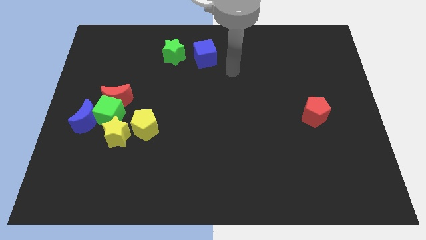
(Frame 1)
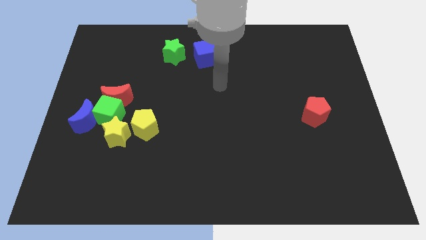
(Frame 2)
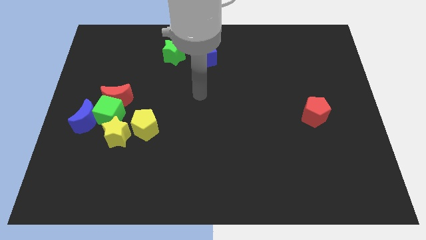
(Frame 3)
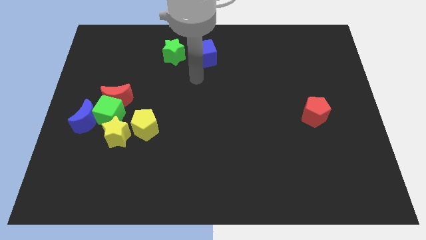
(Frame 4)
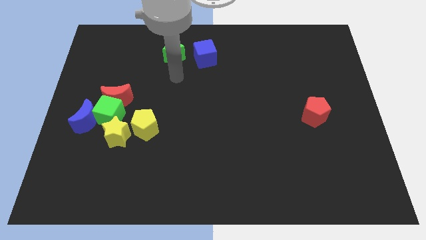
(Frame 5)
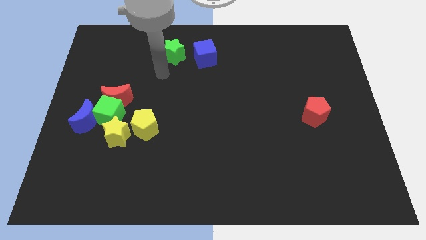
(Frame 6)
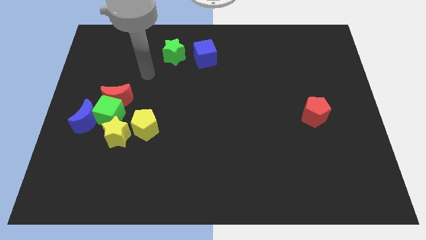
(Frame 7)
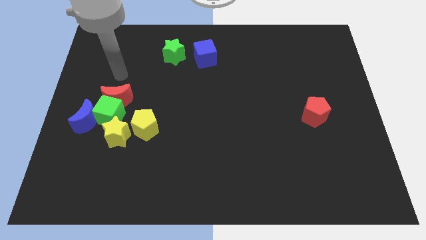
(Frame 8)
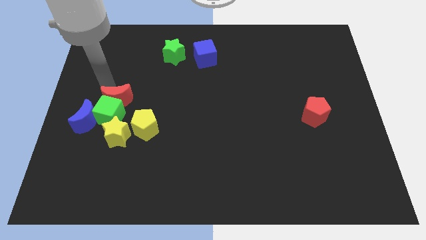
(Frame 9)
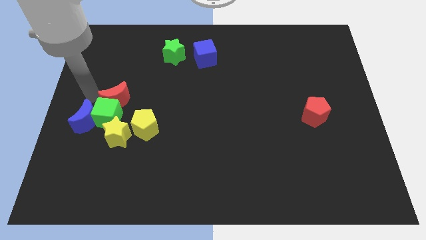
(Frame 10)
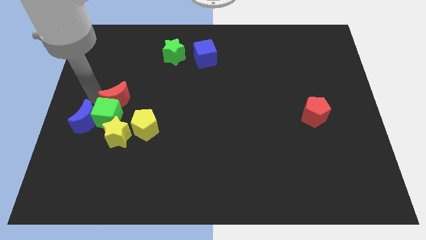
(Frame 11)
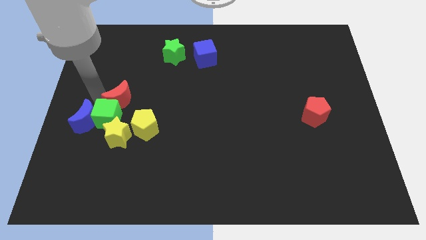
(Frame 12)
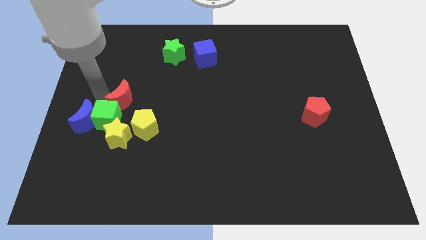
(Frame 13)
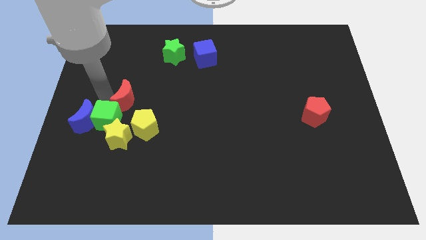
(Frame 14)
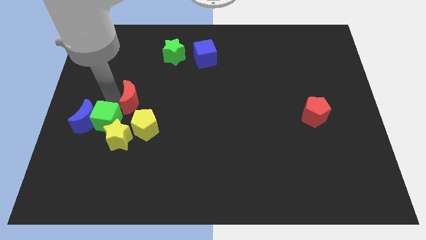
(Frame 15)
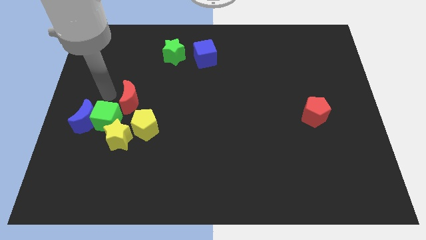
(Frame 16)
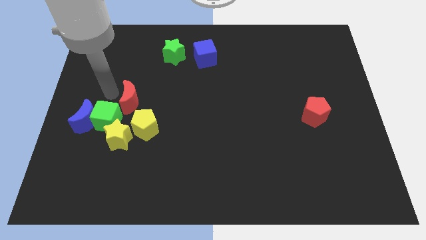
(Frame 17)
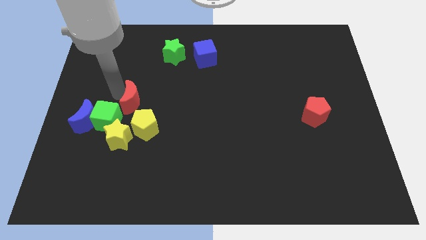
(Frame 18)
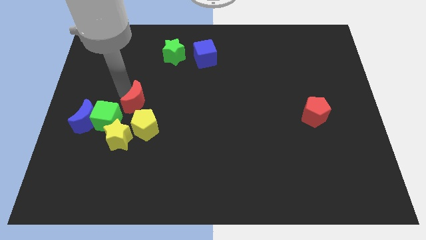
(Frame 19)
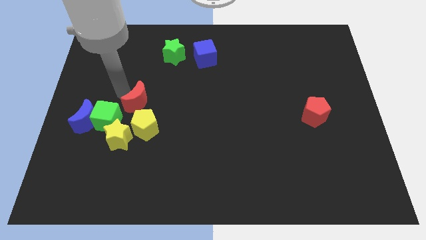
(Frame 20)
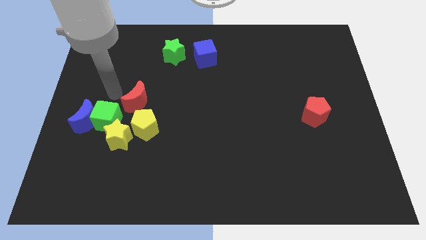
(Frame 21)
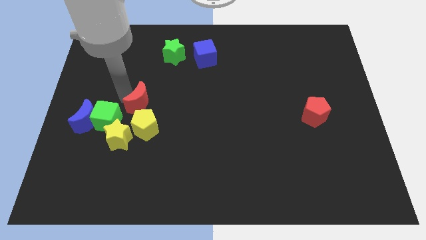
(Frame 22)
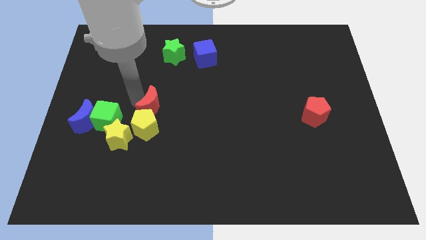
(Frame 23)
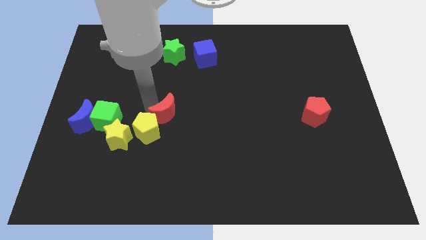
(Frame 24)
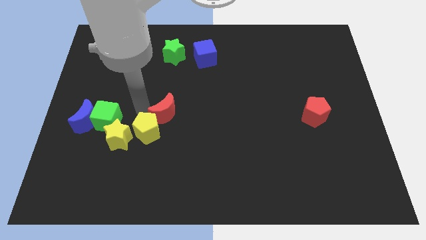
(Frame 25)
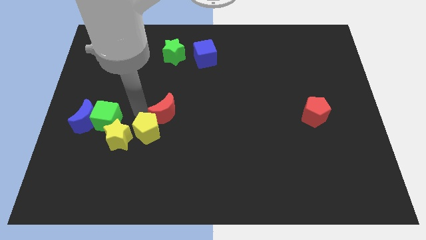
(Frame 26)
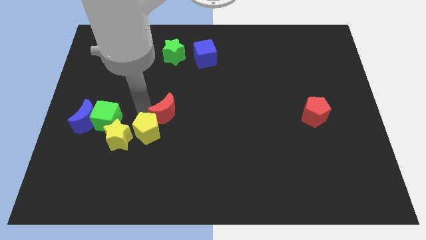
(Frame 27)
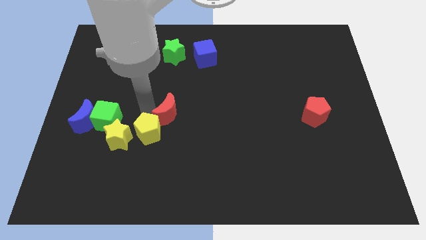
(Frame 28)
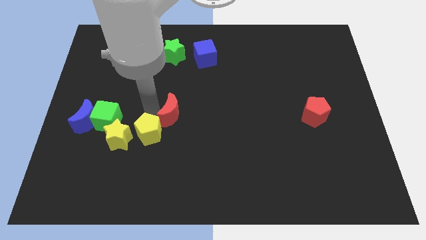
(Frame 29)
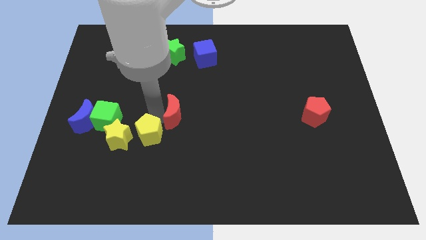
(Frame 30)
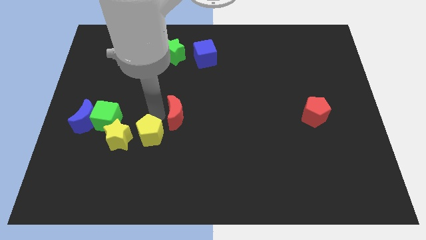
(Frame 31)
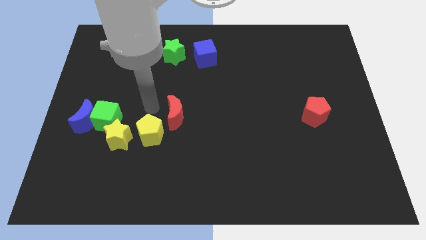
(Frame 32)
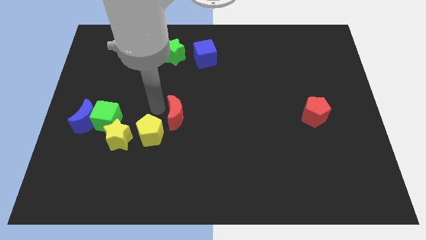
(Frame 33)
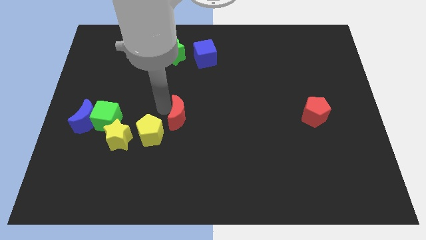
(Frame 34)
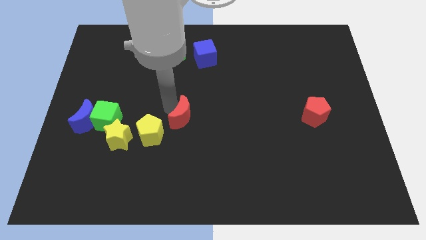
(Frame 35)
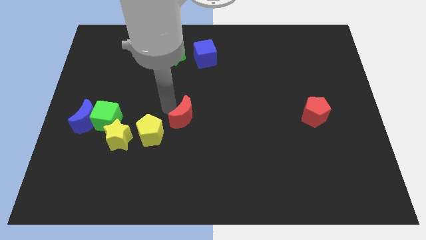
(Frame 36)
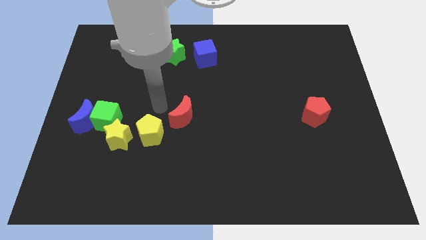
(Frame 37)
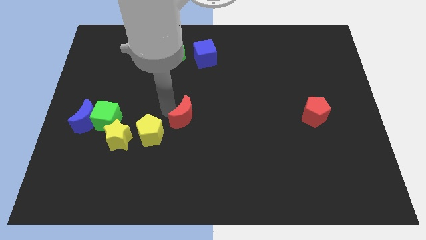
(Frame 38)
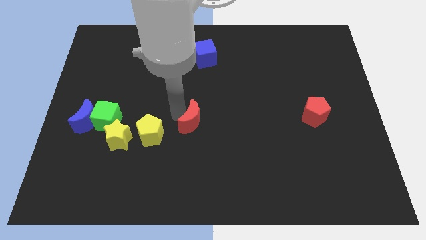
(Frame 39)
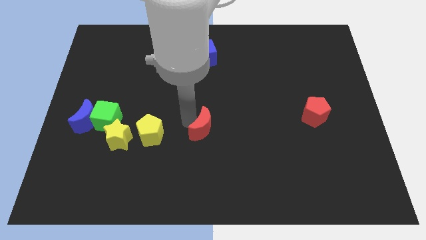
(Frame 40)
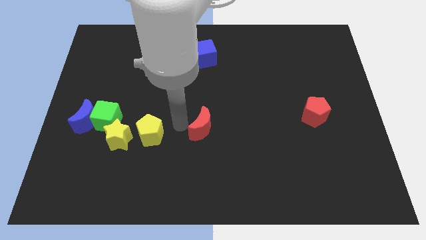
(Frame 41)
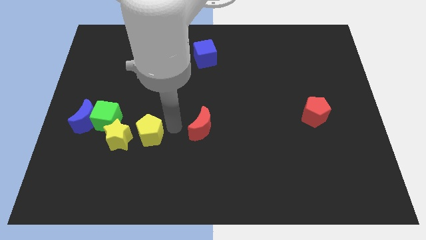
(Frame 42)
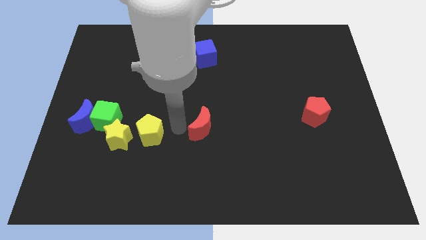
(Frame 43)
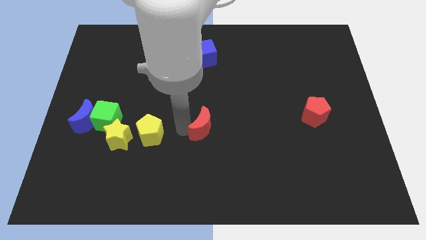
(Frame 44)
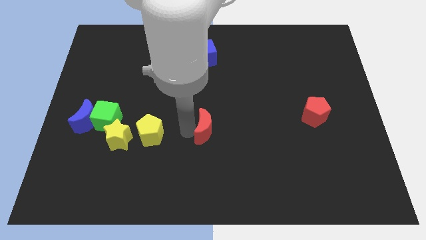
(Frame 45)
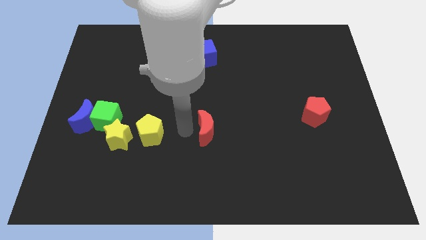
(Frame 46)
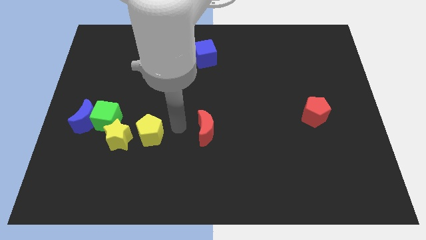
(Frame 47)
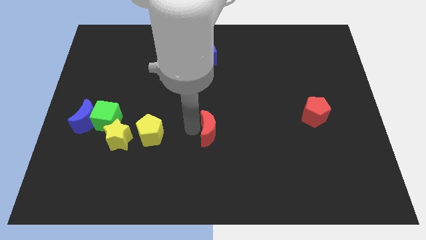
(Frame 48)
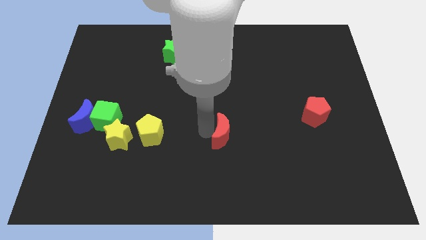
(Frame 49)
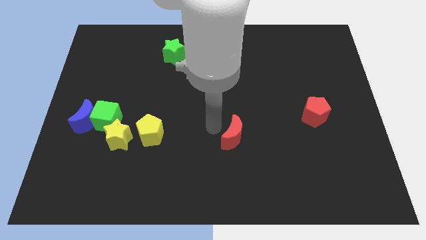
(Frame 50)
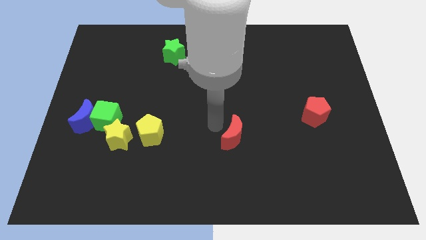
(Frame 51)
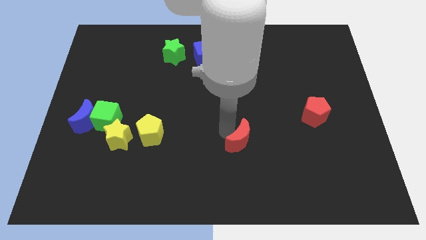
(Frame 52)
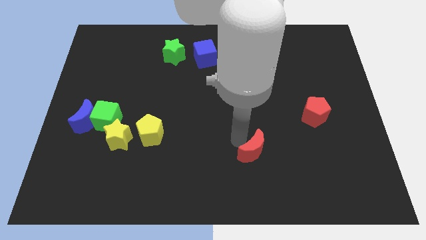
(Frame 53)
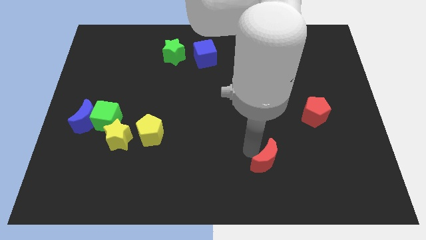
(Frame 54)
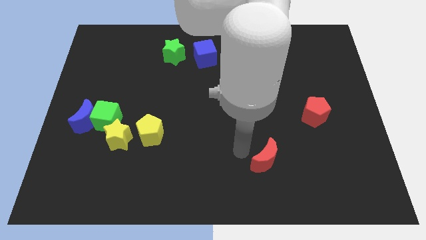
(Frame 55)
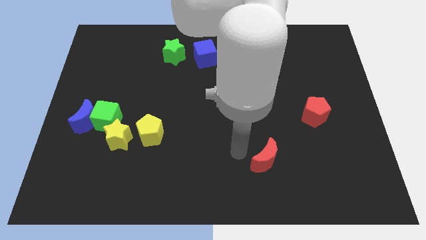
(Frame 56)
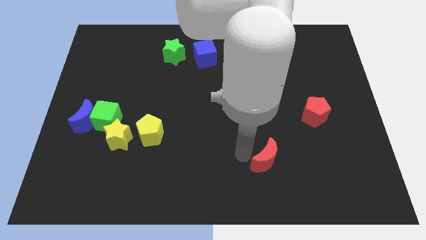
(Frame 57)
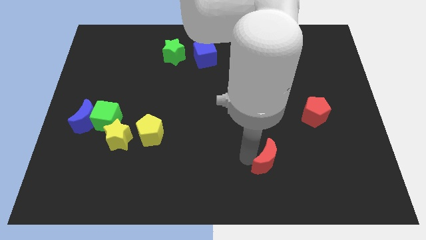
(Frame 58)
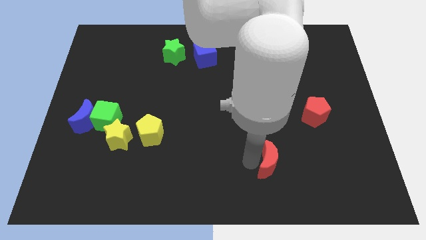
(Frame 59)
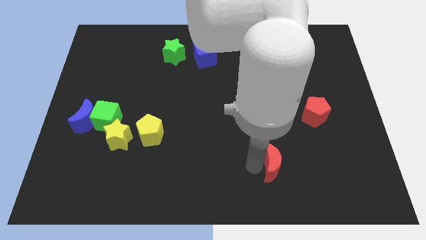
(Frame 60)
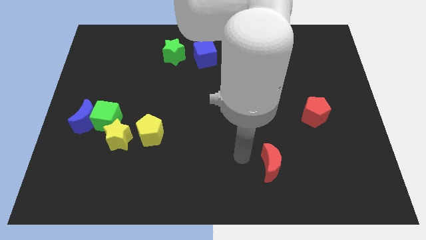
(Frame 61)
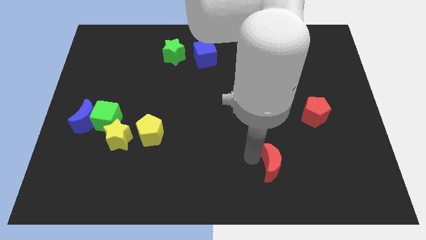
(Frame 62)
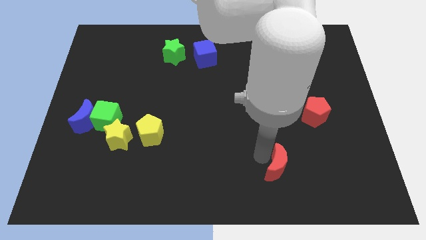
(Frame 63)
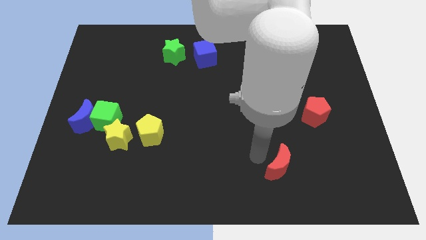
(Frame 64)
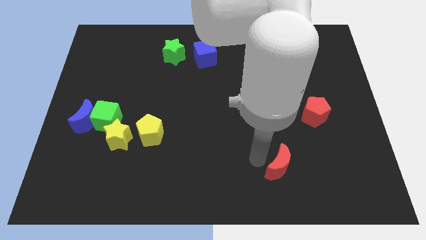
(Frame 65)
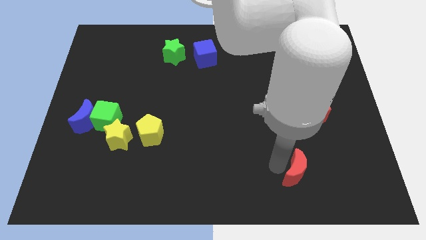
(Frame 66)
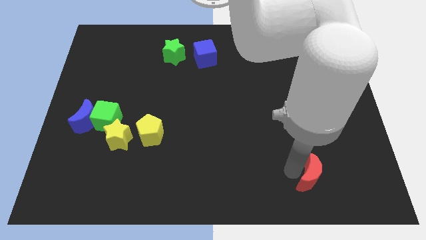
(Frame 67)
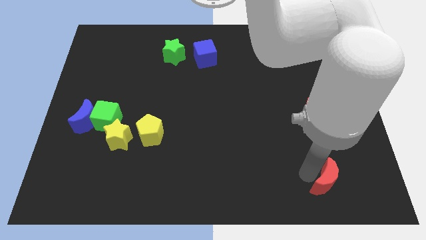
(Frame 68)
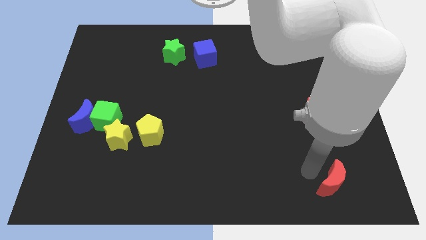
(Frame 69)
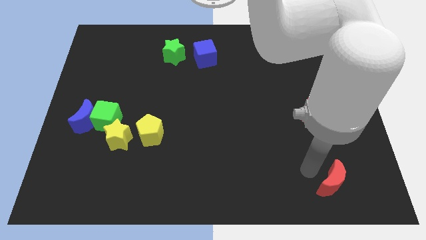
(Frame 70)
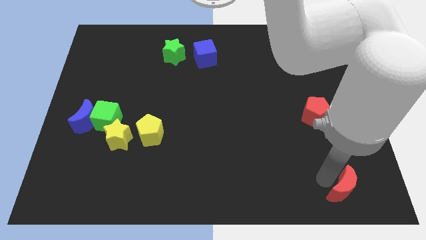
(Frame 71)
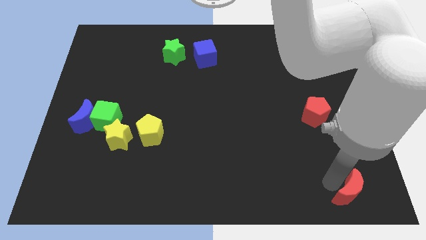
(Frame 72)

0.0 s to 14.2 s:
slide the red moon to the bottom right of the board
